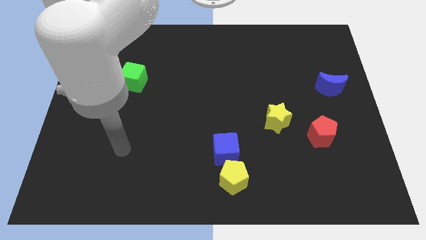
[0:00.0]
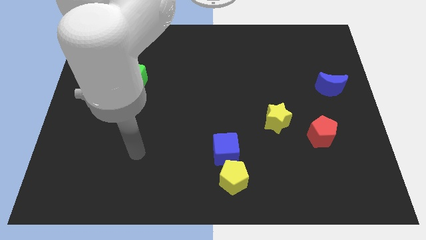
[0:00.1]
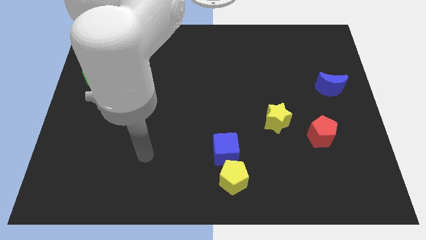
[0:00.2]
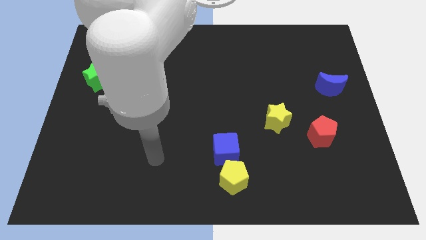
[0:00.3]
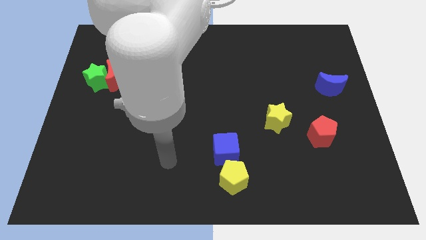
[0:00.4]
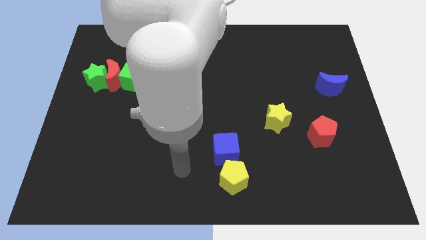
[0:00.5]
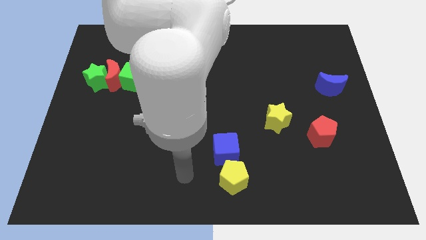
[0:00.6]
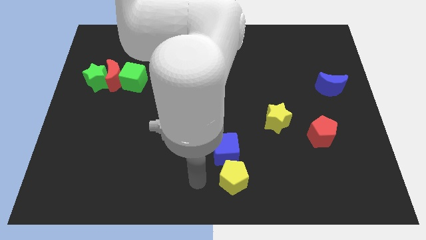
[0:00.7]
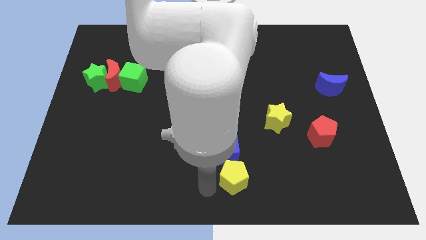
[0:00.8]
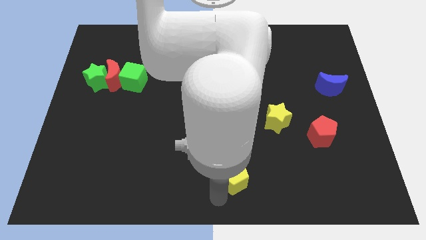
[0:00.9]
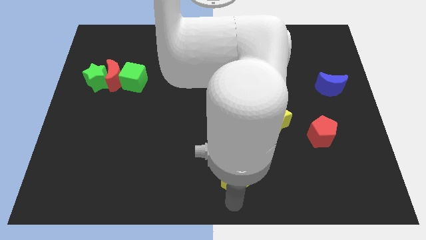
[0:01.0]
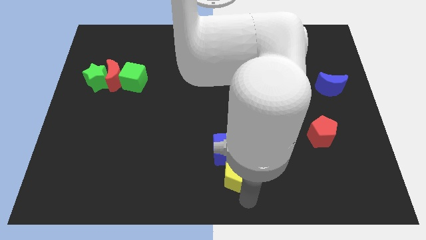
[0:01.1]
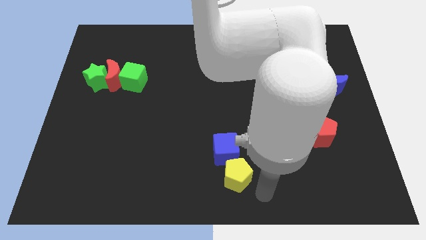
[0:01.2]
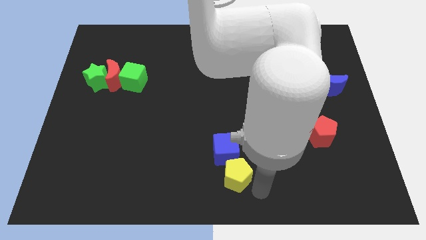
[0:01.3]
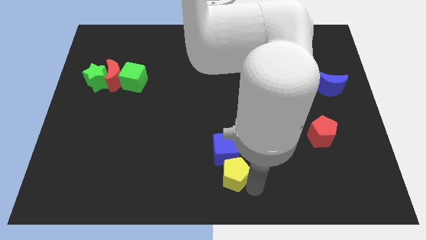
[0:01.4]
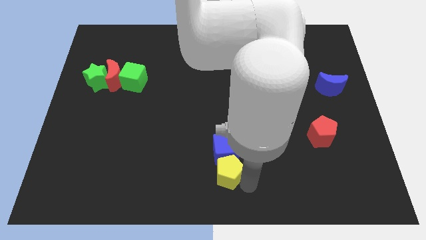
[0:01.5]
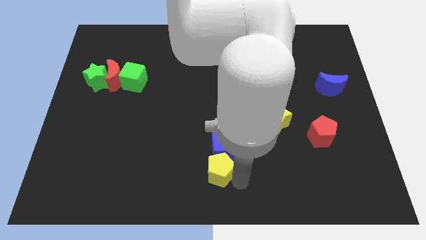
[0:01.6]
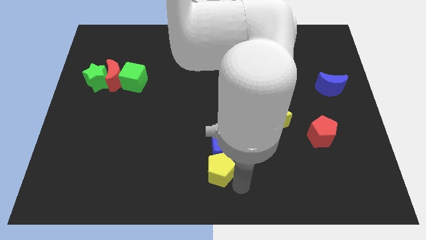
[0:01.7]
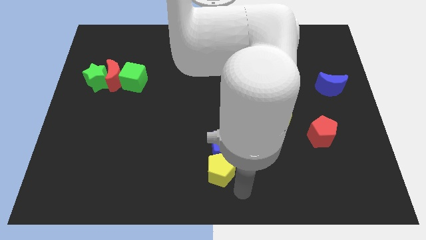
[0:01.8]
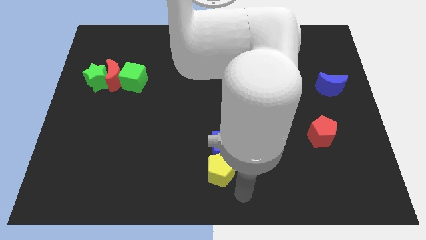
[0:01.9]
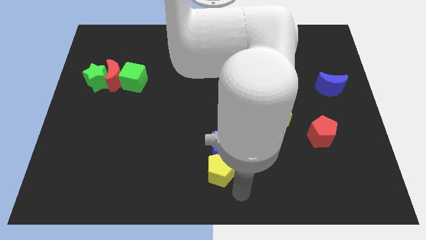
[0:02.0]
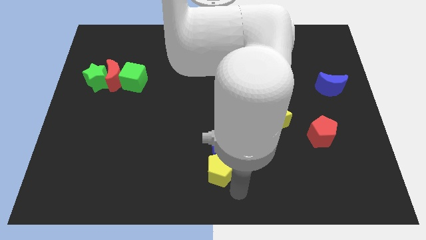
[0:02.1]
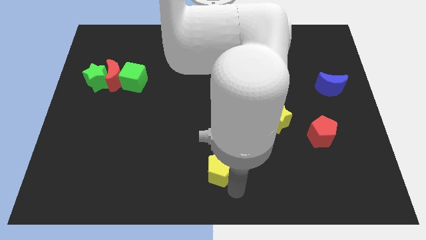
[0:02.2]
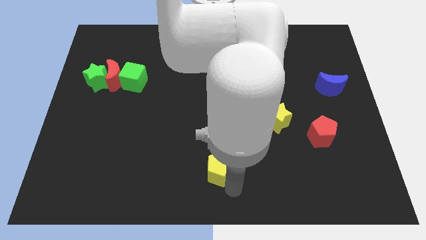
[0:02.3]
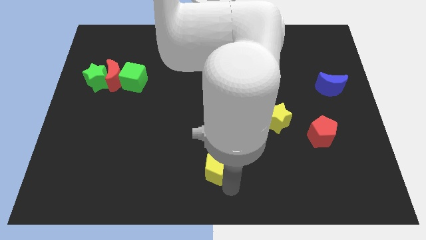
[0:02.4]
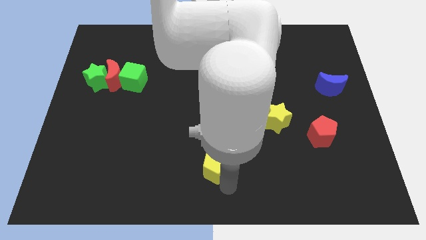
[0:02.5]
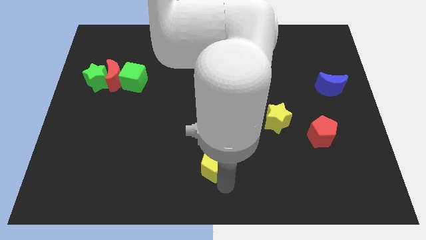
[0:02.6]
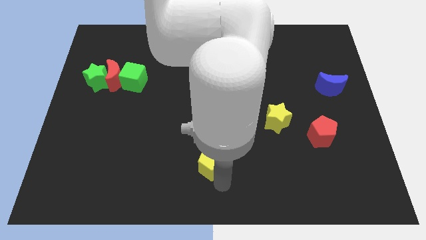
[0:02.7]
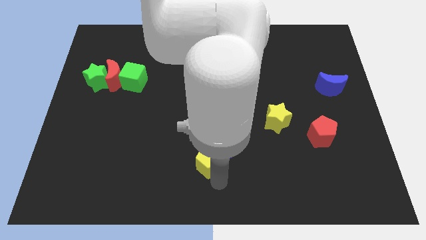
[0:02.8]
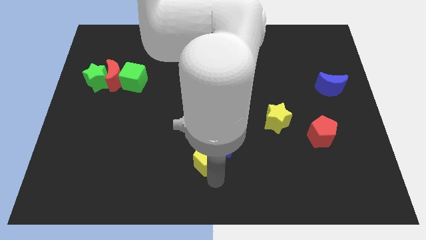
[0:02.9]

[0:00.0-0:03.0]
slide the yellow pentagon somewhat diagonally up and to the left

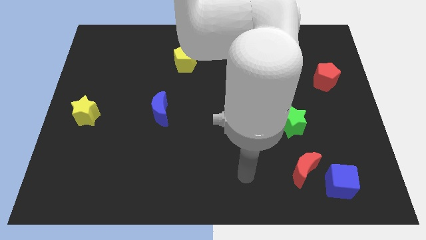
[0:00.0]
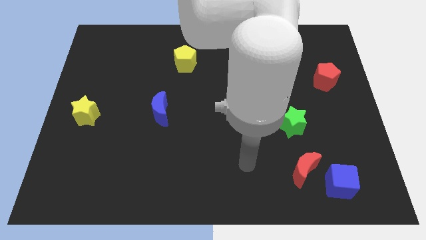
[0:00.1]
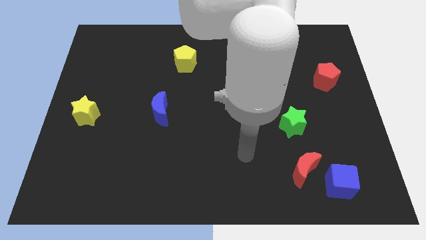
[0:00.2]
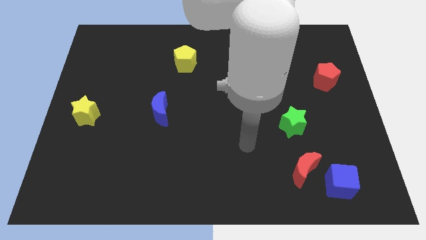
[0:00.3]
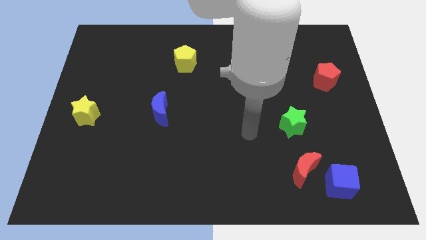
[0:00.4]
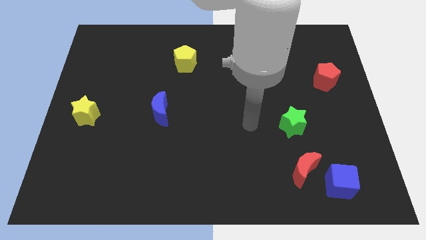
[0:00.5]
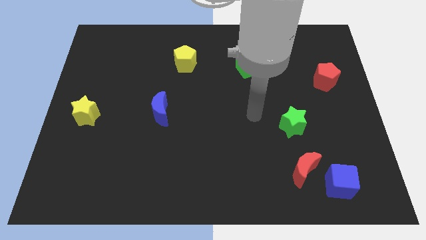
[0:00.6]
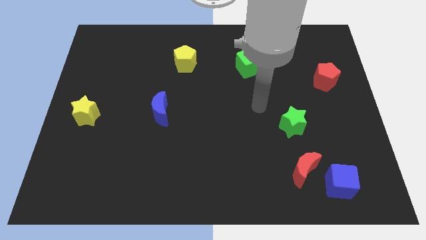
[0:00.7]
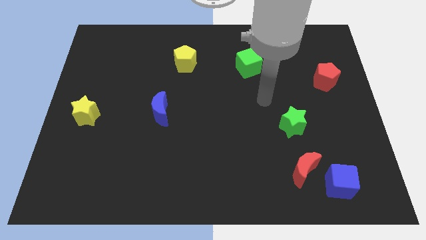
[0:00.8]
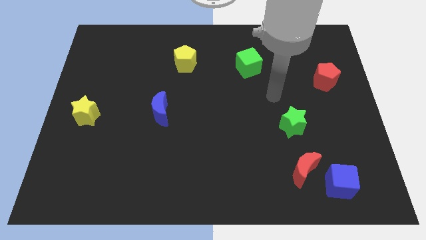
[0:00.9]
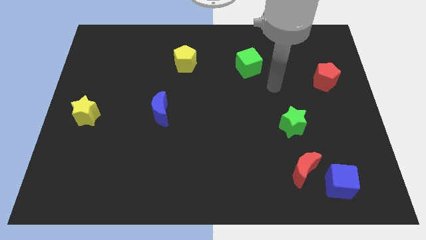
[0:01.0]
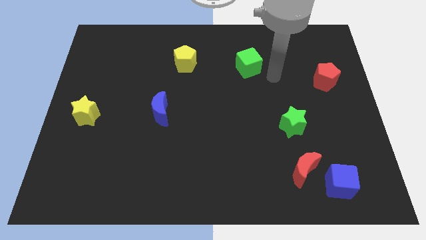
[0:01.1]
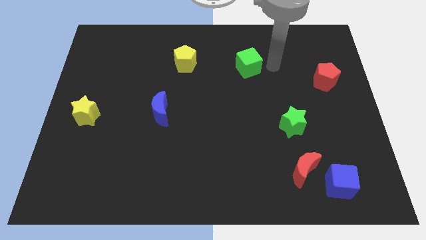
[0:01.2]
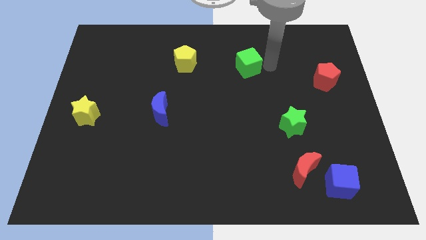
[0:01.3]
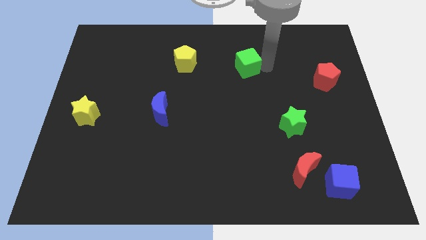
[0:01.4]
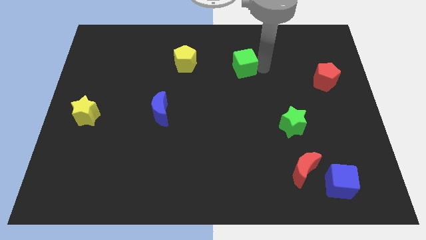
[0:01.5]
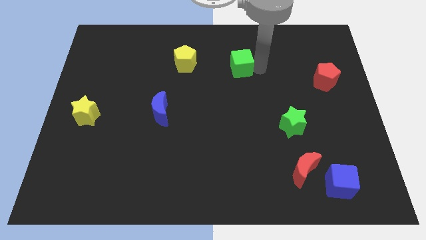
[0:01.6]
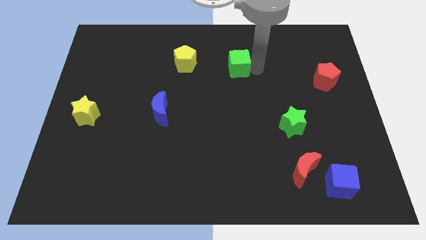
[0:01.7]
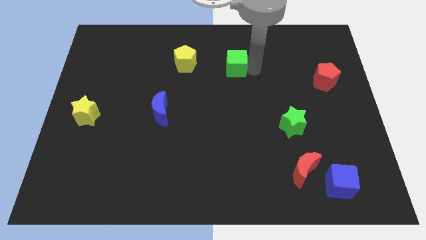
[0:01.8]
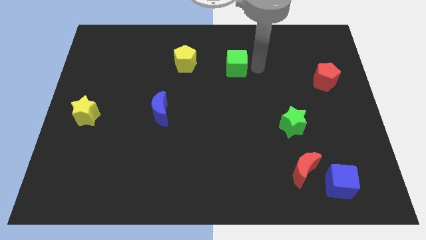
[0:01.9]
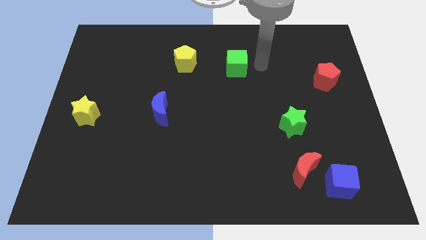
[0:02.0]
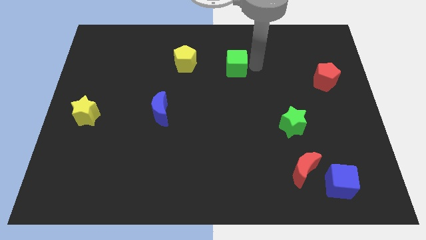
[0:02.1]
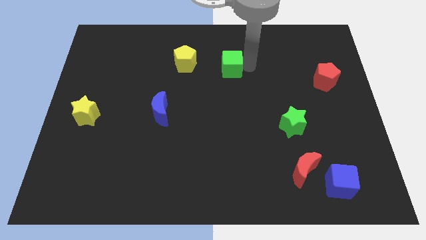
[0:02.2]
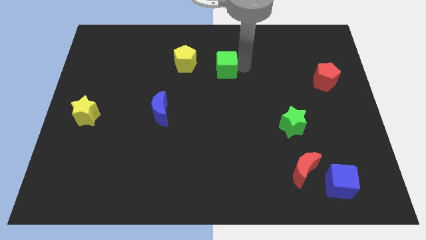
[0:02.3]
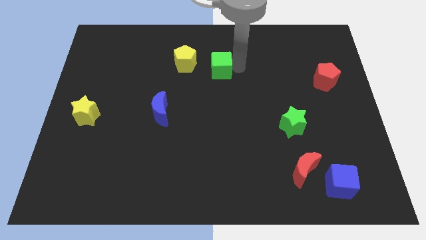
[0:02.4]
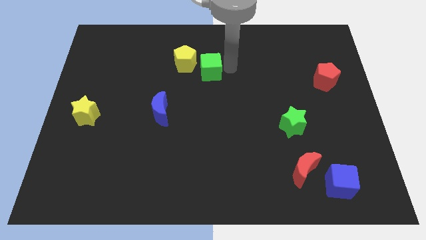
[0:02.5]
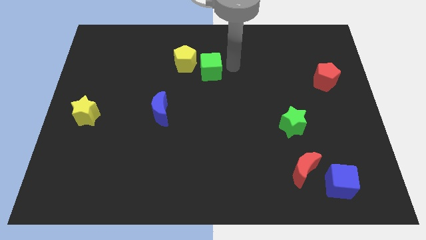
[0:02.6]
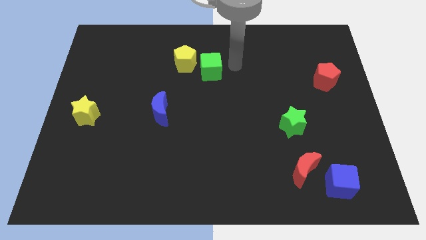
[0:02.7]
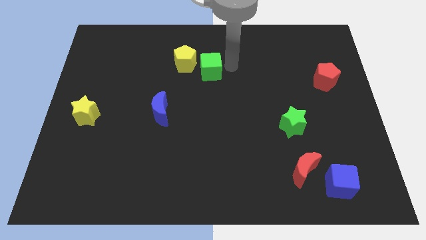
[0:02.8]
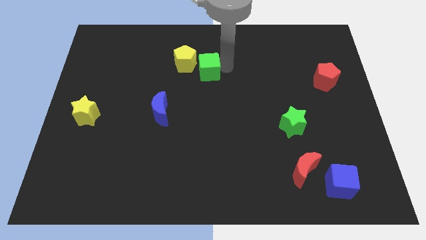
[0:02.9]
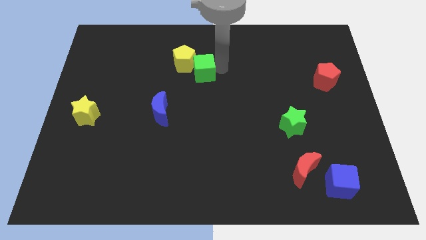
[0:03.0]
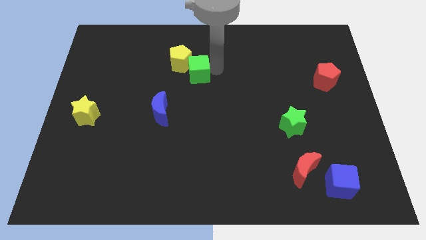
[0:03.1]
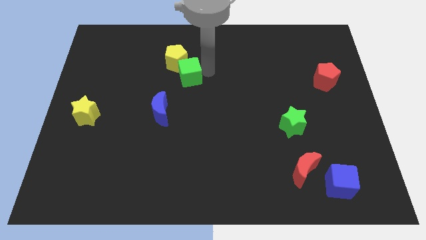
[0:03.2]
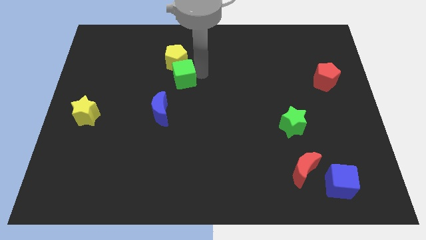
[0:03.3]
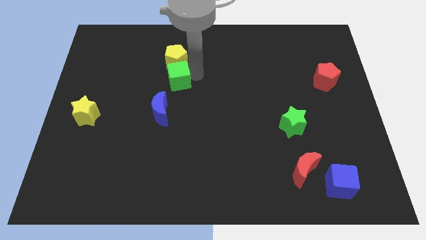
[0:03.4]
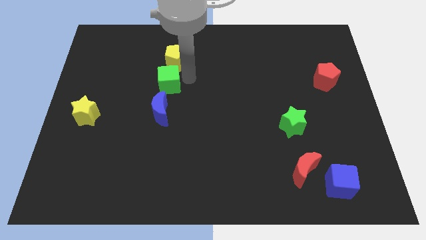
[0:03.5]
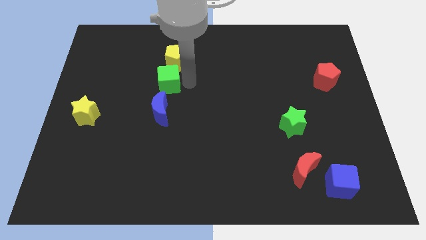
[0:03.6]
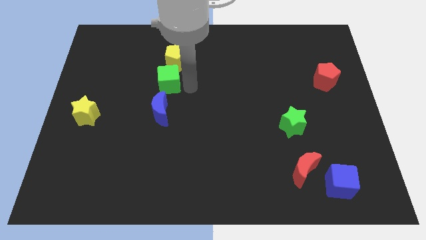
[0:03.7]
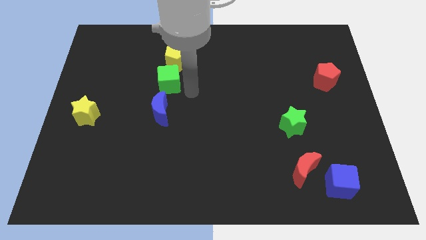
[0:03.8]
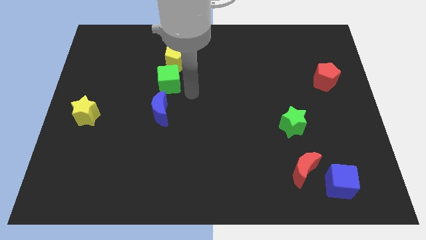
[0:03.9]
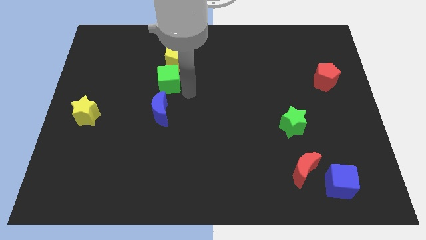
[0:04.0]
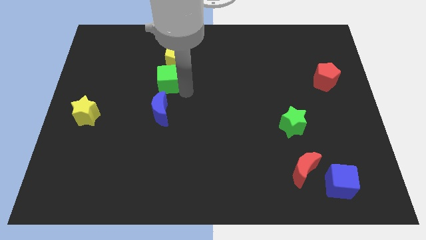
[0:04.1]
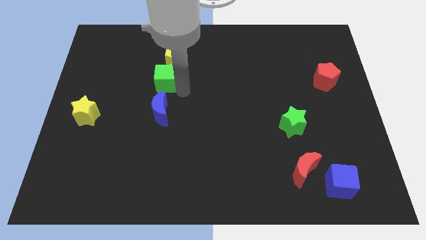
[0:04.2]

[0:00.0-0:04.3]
move the green cube to the left
